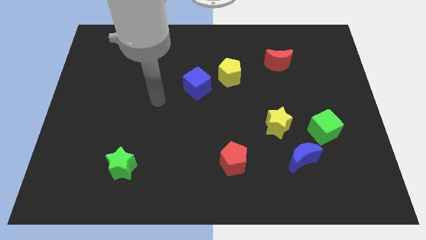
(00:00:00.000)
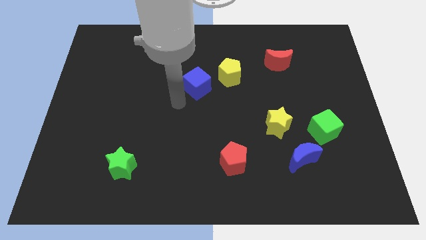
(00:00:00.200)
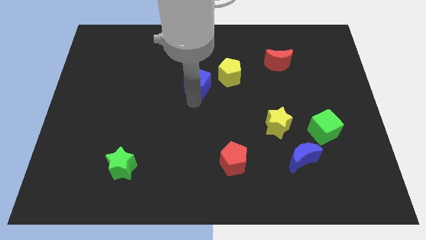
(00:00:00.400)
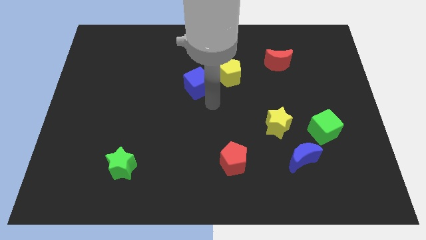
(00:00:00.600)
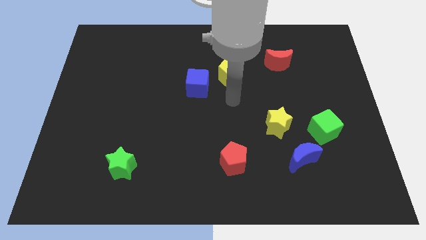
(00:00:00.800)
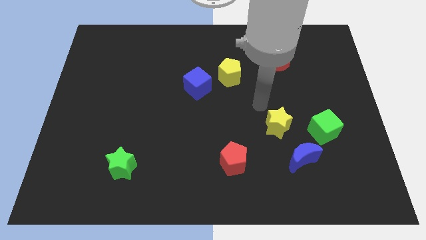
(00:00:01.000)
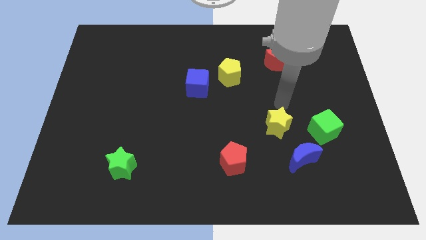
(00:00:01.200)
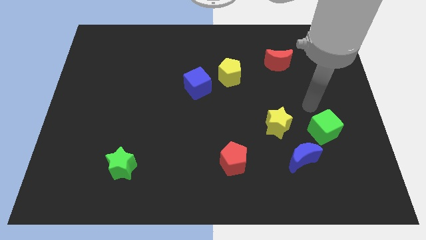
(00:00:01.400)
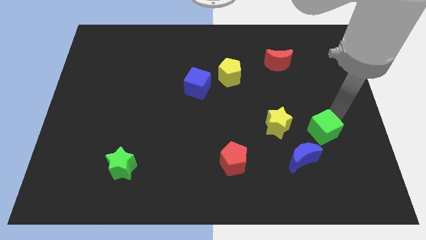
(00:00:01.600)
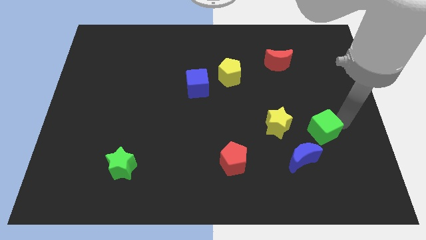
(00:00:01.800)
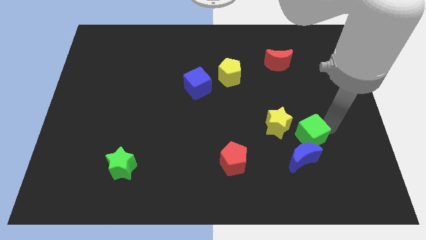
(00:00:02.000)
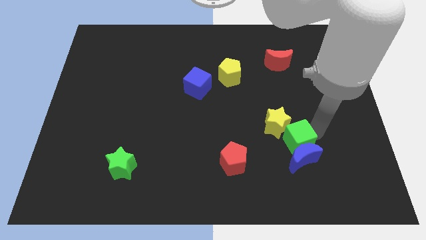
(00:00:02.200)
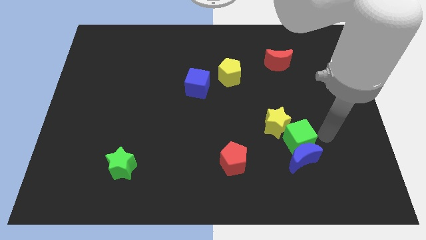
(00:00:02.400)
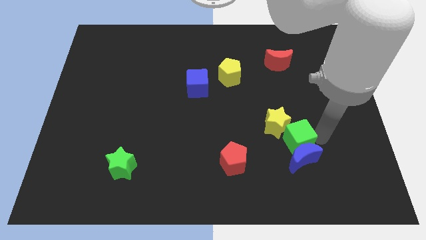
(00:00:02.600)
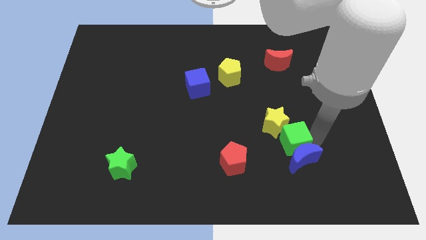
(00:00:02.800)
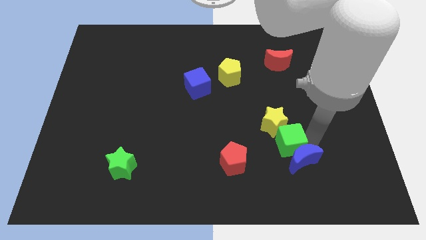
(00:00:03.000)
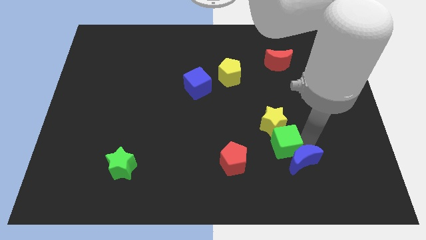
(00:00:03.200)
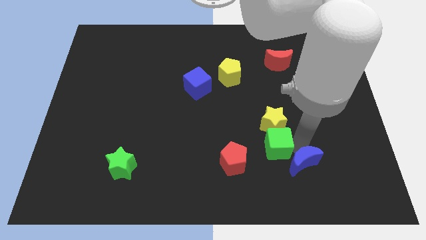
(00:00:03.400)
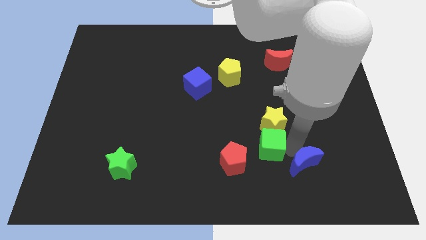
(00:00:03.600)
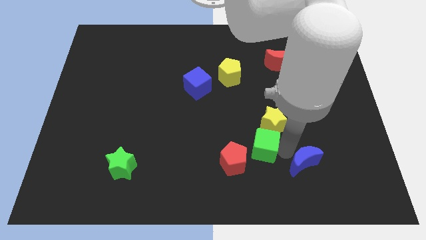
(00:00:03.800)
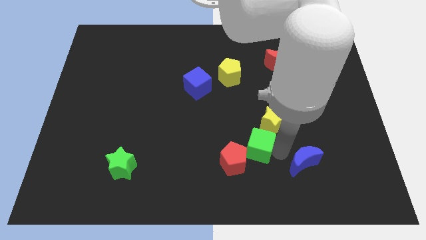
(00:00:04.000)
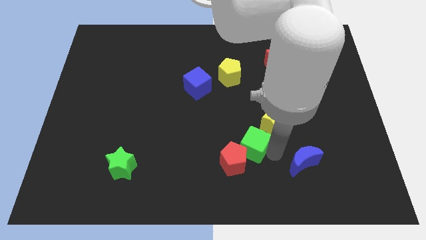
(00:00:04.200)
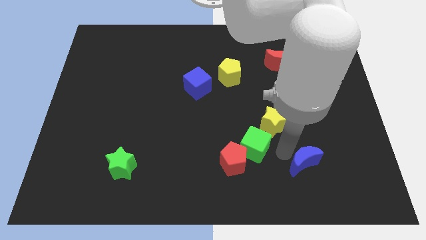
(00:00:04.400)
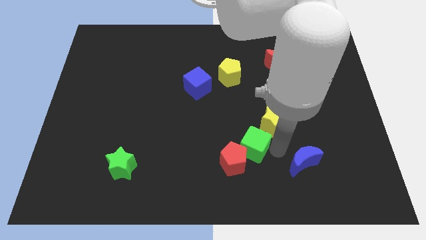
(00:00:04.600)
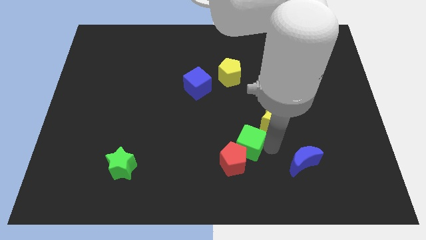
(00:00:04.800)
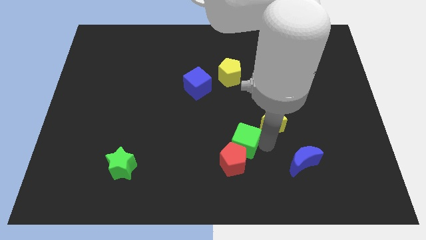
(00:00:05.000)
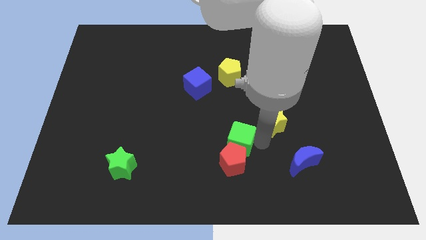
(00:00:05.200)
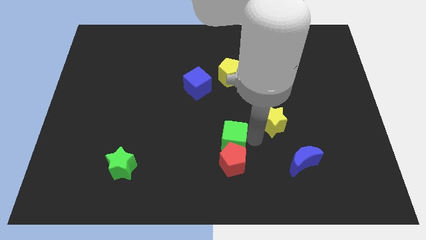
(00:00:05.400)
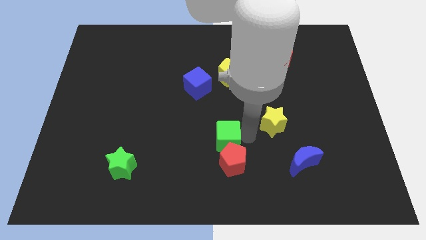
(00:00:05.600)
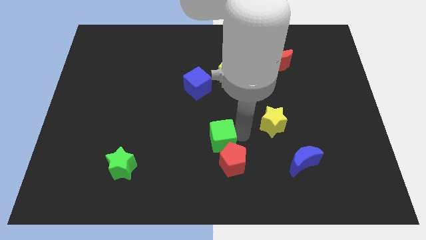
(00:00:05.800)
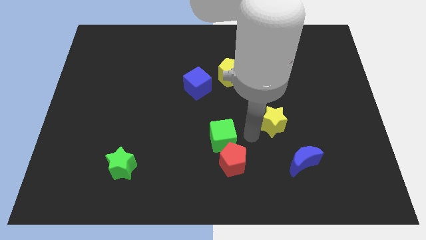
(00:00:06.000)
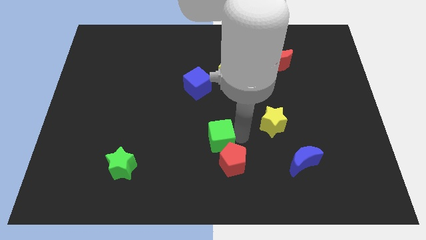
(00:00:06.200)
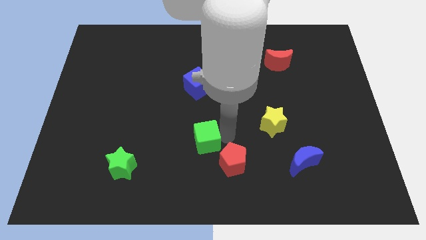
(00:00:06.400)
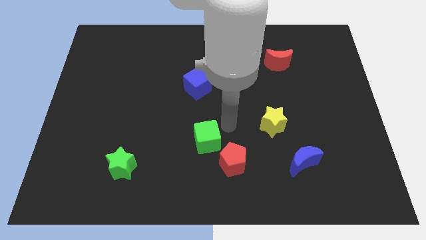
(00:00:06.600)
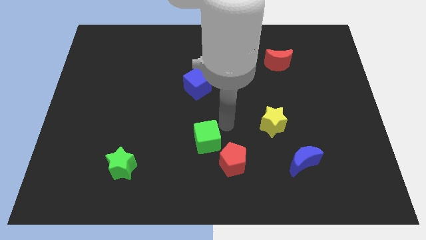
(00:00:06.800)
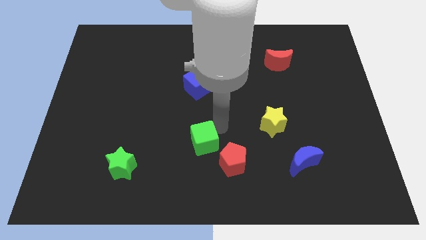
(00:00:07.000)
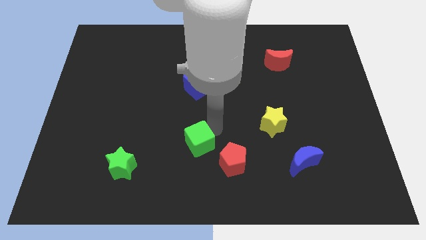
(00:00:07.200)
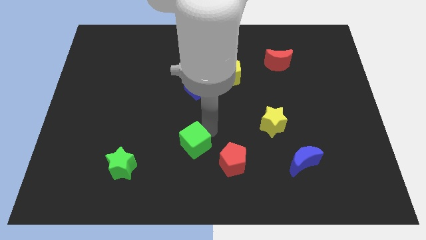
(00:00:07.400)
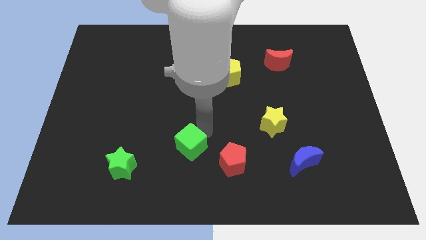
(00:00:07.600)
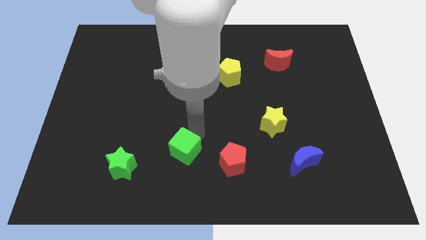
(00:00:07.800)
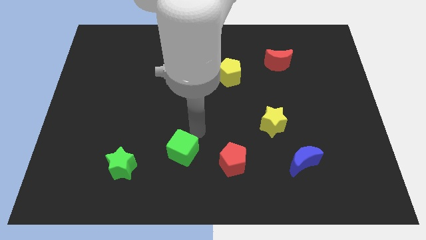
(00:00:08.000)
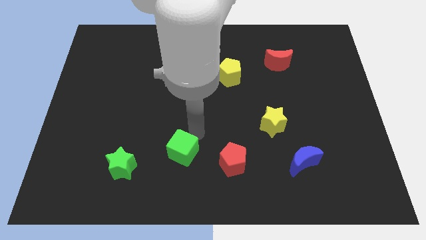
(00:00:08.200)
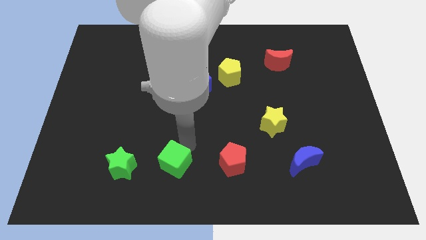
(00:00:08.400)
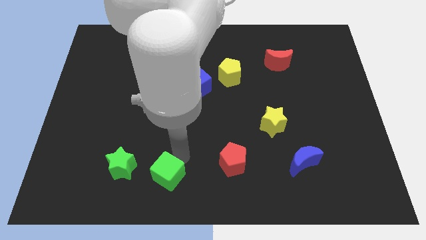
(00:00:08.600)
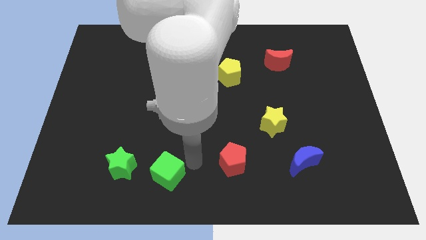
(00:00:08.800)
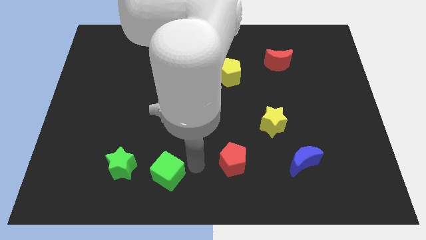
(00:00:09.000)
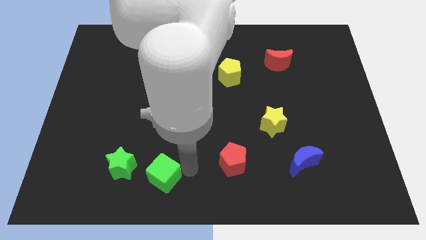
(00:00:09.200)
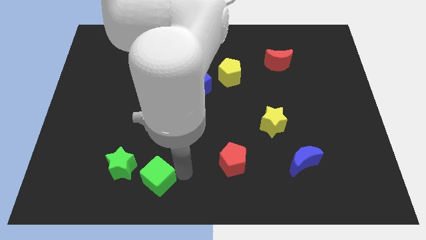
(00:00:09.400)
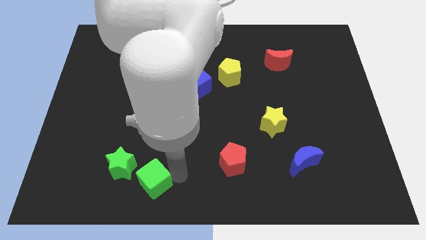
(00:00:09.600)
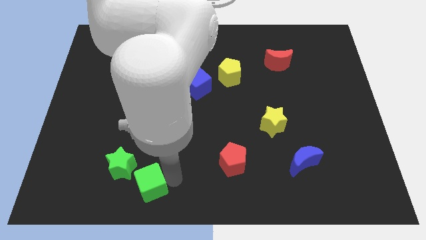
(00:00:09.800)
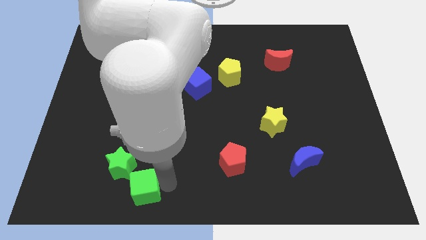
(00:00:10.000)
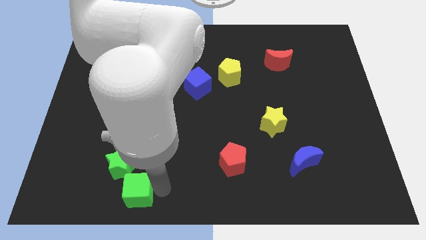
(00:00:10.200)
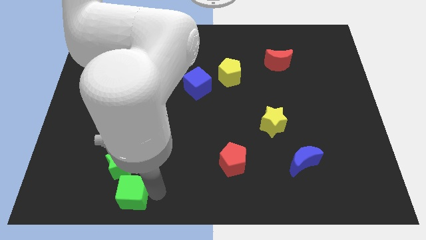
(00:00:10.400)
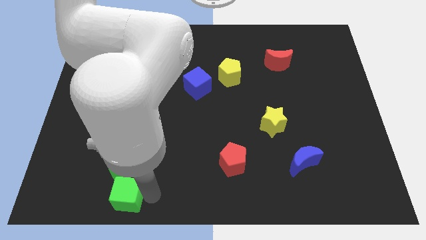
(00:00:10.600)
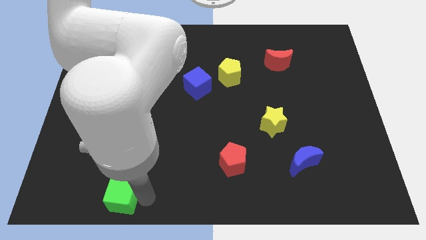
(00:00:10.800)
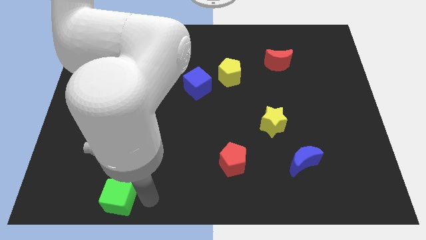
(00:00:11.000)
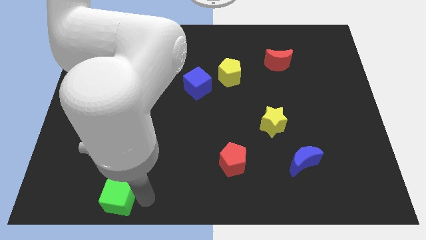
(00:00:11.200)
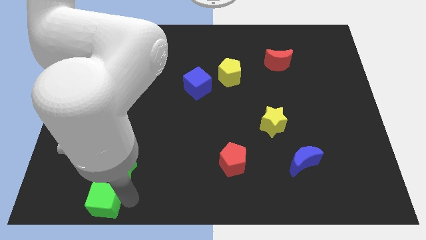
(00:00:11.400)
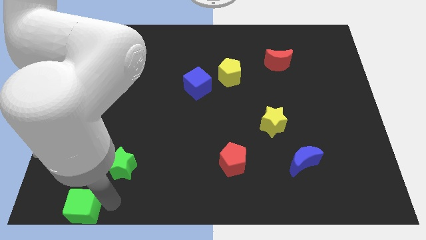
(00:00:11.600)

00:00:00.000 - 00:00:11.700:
put the green cube to the lower left corner
